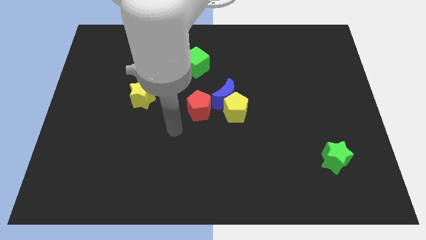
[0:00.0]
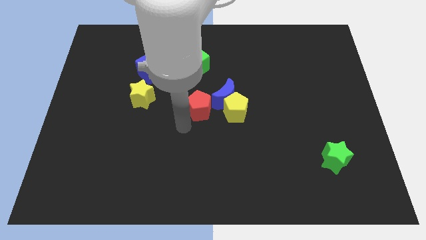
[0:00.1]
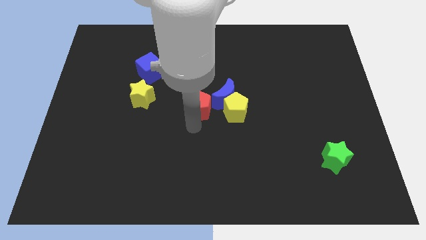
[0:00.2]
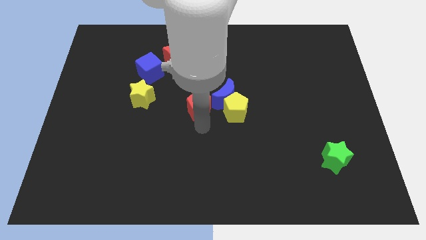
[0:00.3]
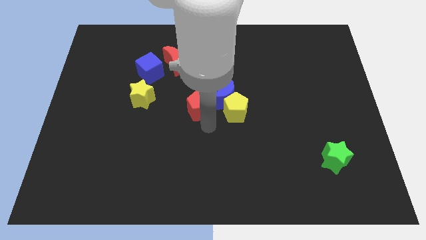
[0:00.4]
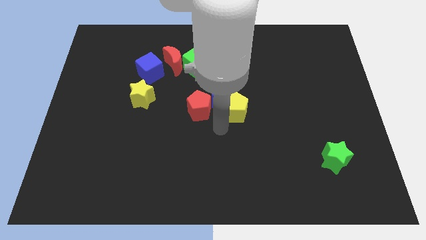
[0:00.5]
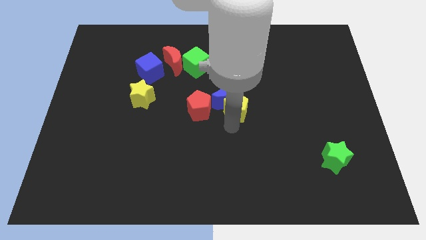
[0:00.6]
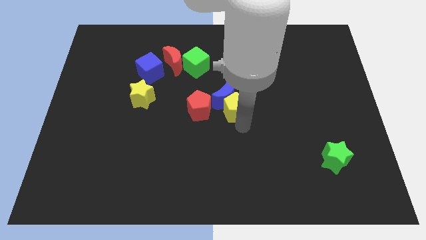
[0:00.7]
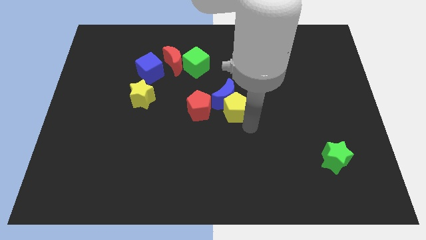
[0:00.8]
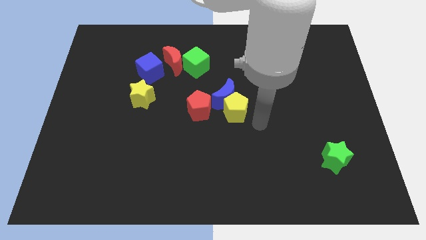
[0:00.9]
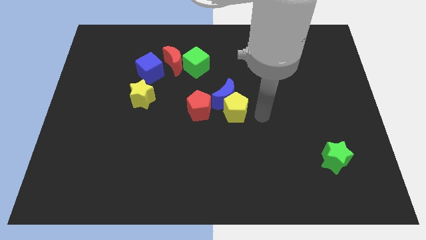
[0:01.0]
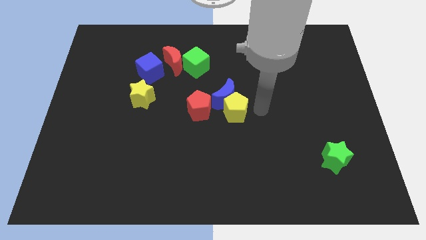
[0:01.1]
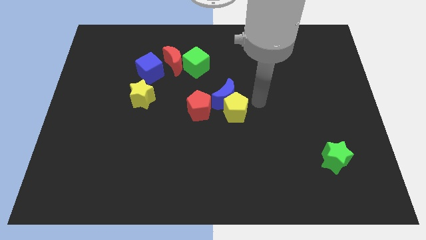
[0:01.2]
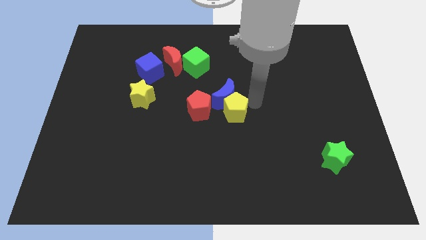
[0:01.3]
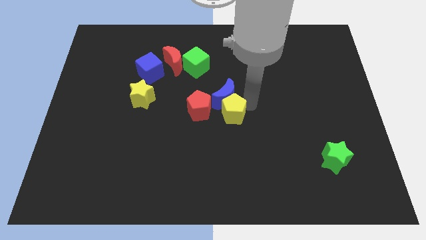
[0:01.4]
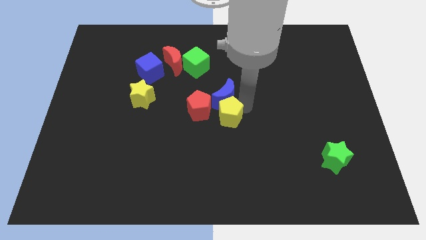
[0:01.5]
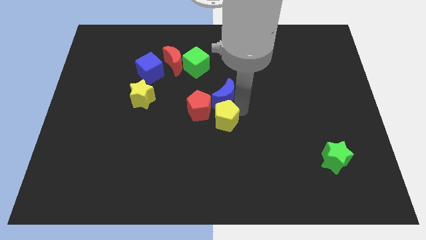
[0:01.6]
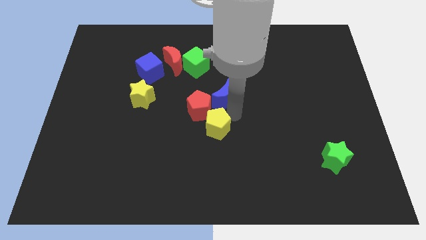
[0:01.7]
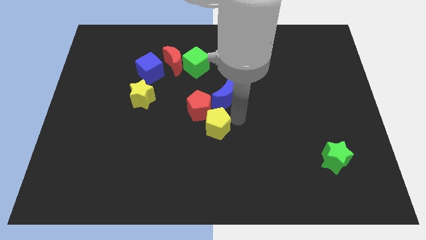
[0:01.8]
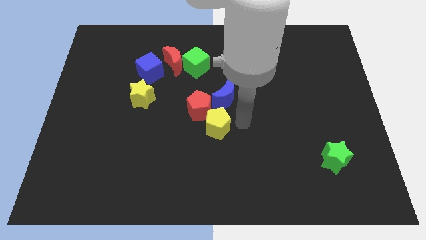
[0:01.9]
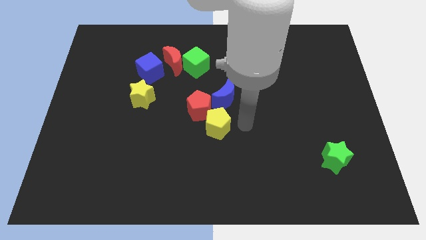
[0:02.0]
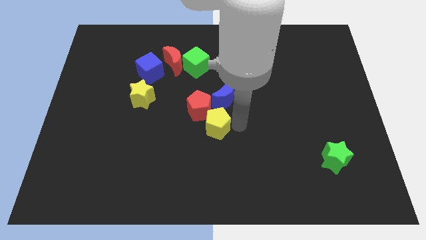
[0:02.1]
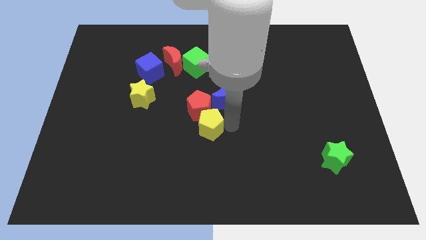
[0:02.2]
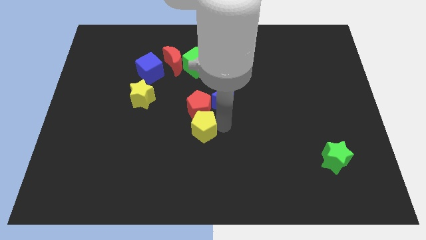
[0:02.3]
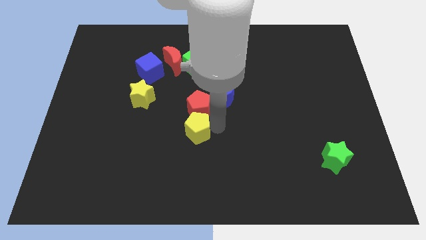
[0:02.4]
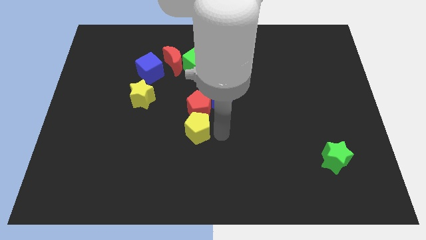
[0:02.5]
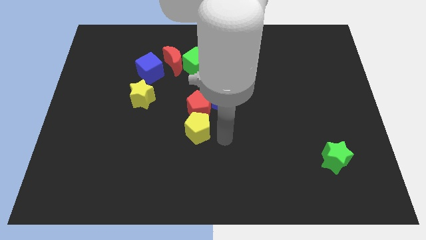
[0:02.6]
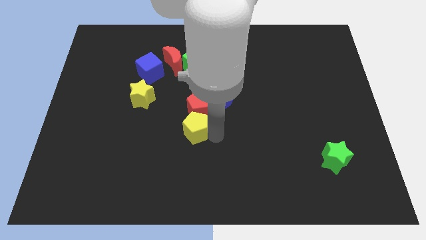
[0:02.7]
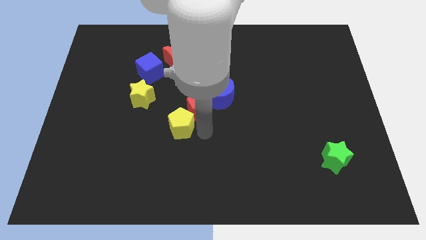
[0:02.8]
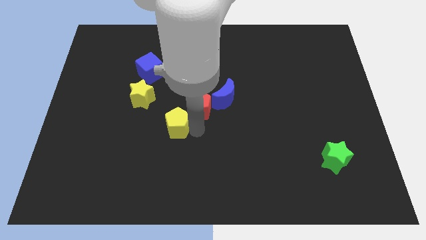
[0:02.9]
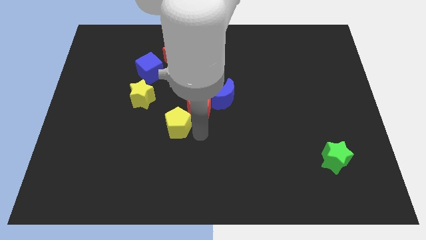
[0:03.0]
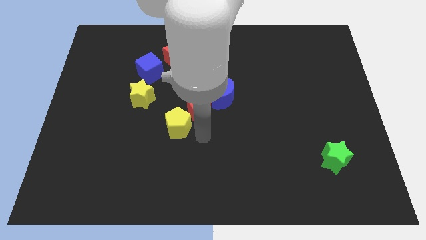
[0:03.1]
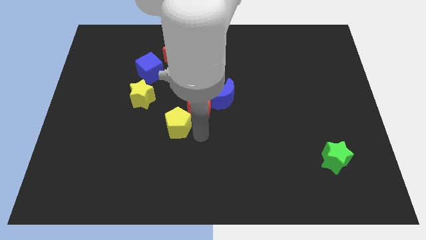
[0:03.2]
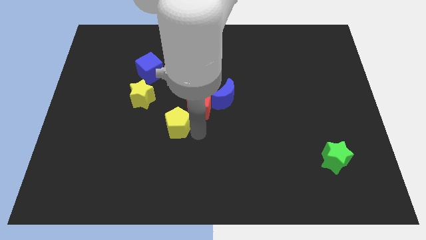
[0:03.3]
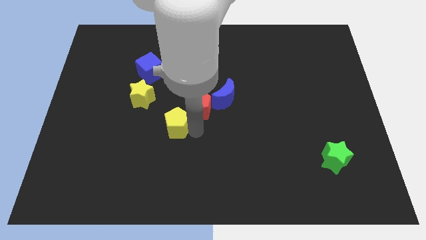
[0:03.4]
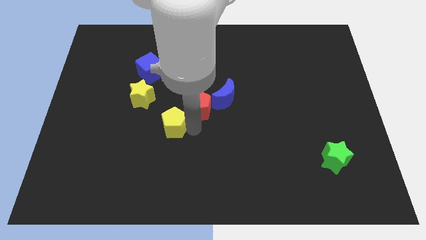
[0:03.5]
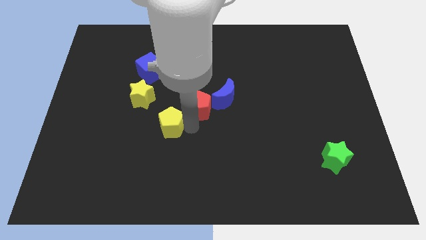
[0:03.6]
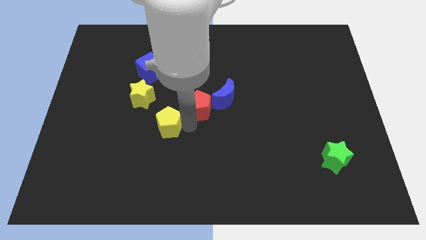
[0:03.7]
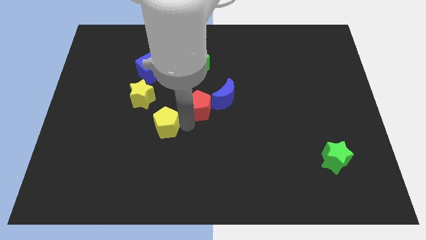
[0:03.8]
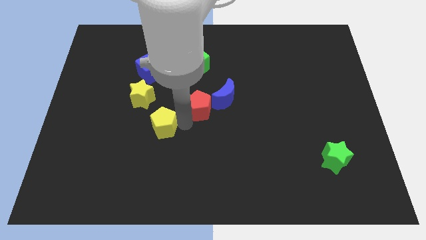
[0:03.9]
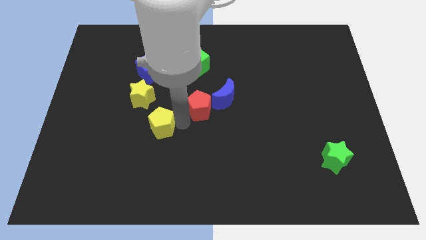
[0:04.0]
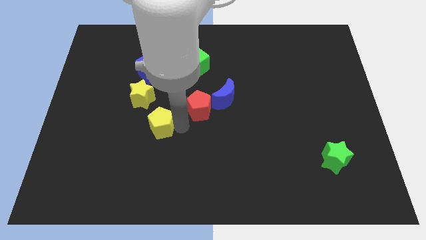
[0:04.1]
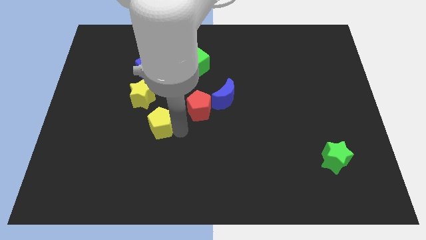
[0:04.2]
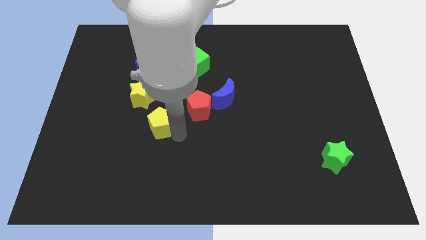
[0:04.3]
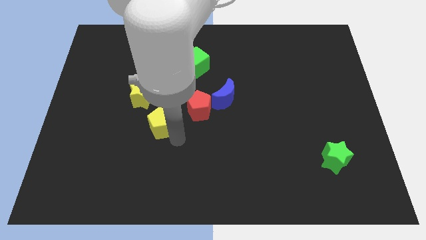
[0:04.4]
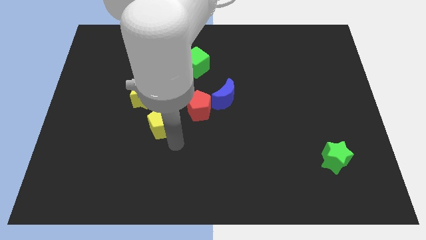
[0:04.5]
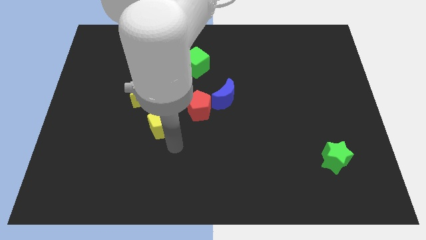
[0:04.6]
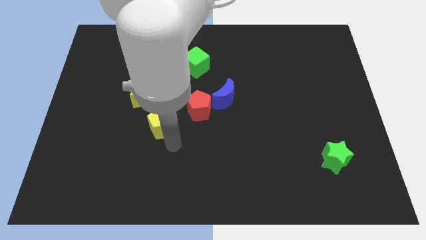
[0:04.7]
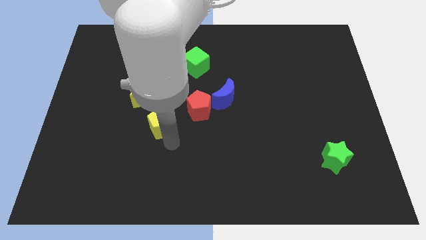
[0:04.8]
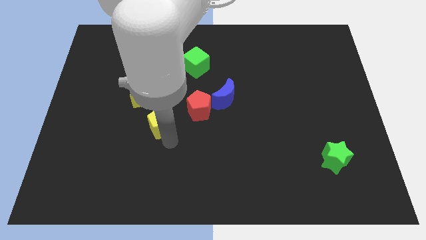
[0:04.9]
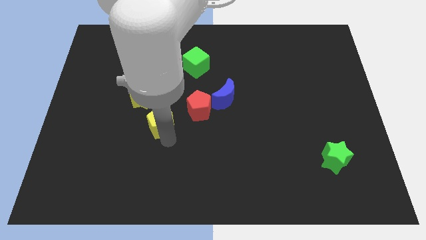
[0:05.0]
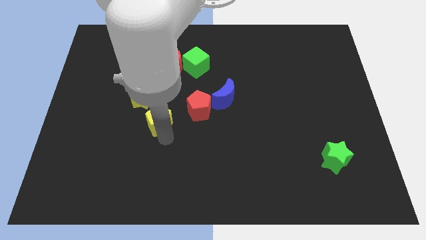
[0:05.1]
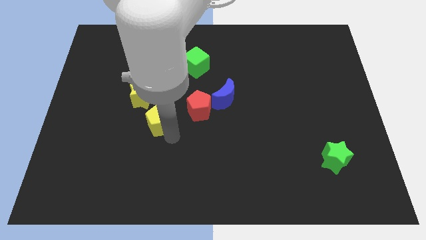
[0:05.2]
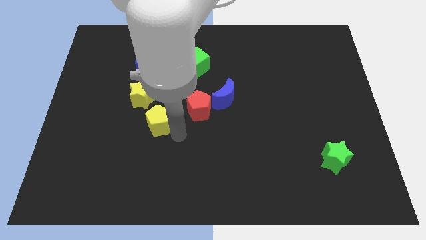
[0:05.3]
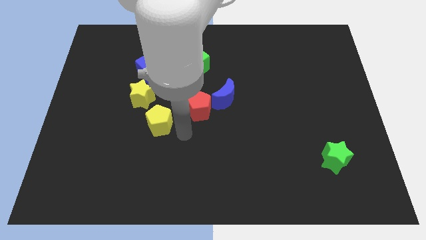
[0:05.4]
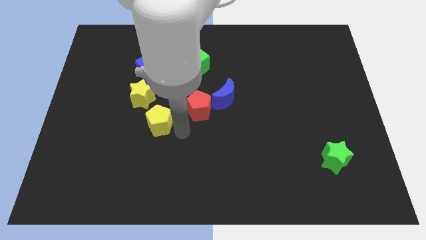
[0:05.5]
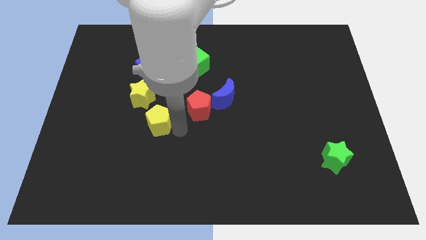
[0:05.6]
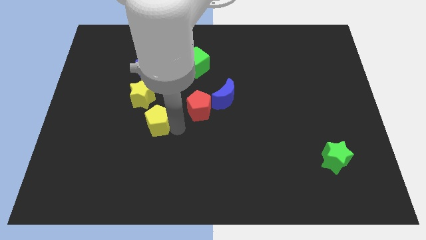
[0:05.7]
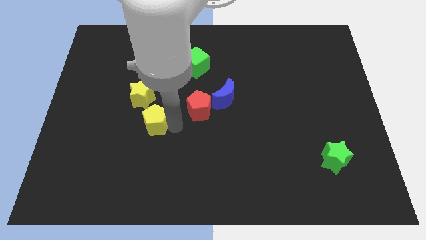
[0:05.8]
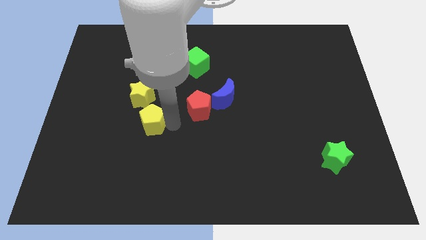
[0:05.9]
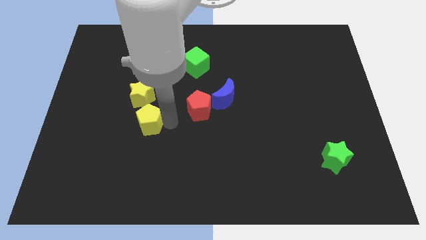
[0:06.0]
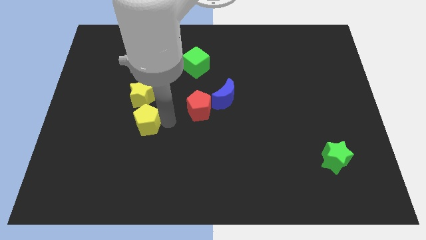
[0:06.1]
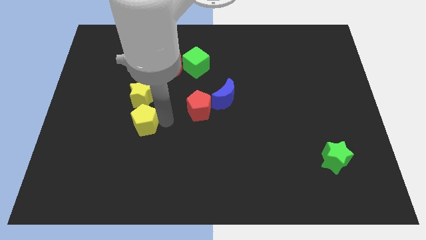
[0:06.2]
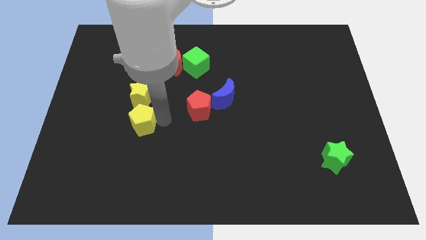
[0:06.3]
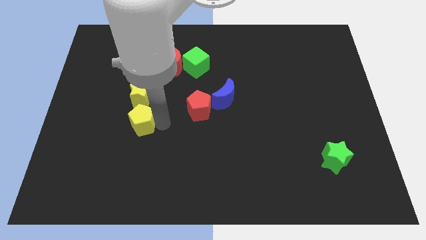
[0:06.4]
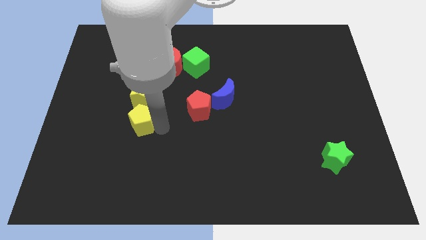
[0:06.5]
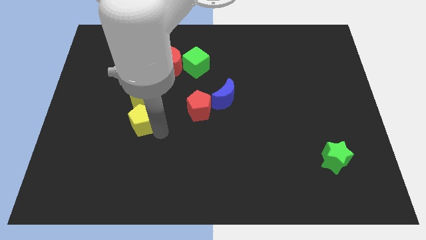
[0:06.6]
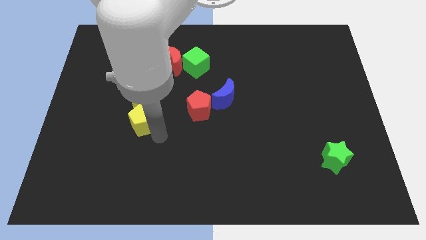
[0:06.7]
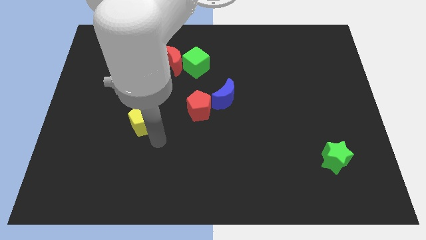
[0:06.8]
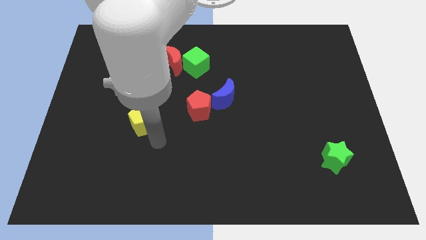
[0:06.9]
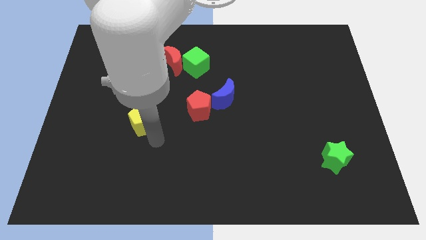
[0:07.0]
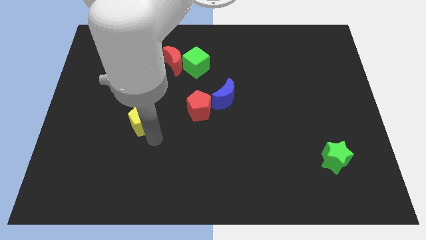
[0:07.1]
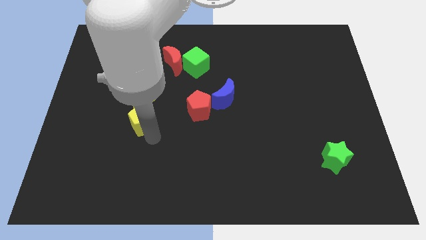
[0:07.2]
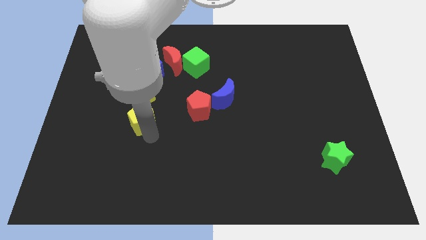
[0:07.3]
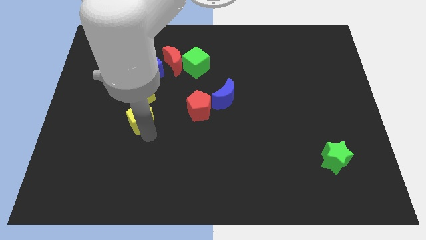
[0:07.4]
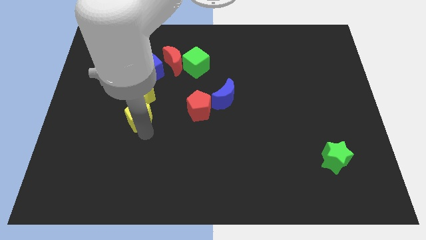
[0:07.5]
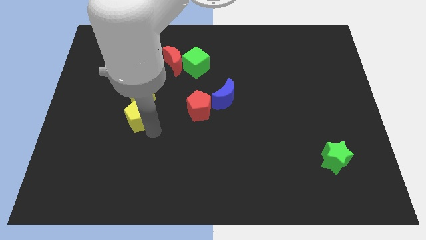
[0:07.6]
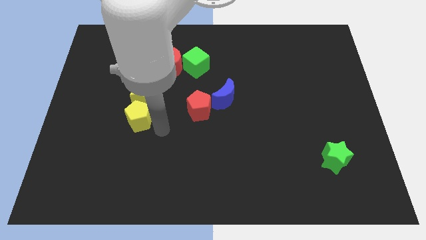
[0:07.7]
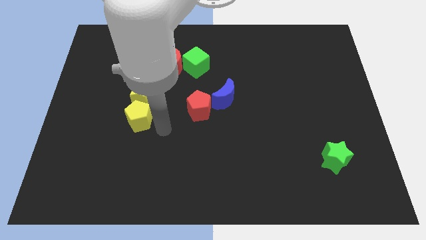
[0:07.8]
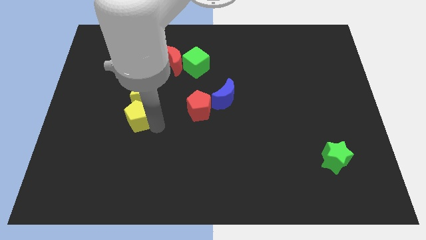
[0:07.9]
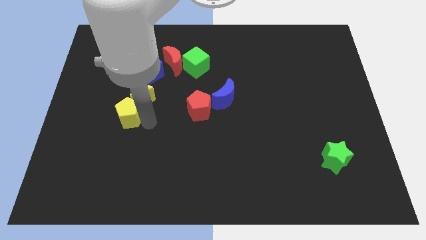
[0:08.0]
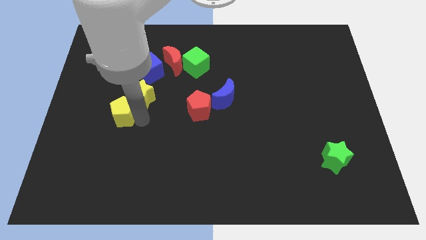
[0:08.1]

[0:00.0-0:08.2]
put the yellow pentagon just left of the yellow star

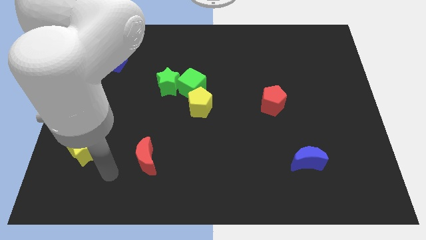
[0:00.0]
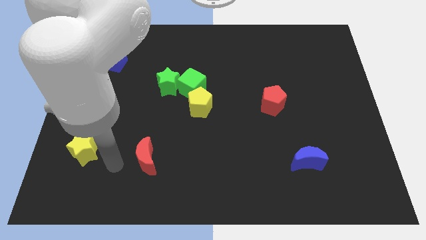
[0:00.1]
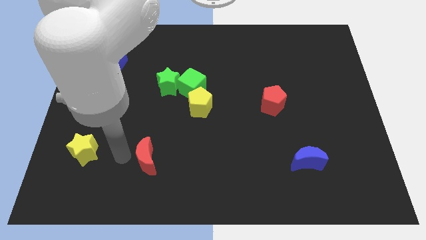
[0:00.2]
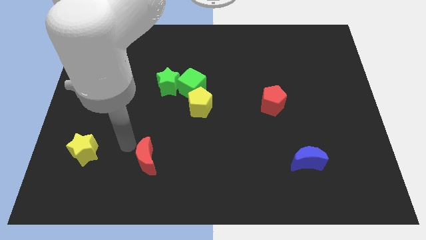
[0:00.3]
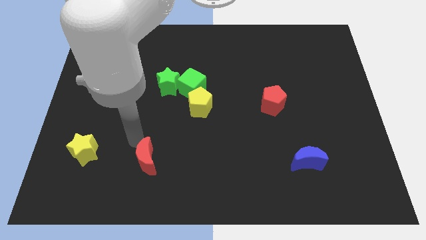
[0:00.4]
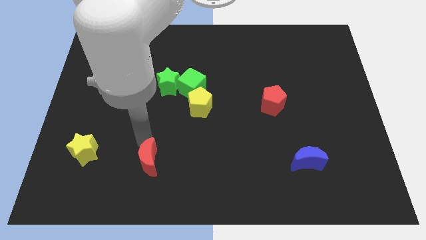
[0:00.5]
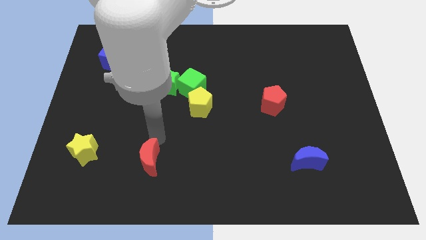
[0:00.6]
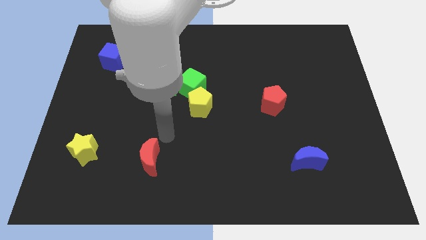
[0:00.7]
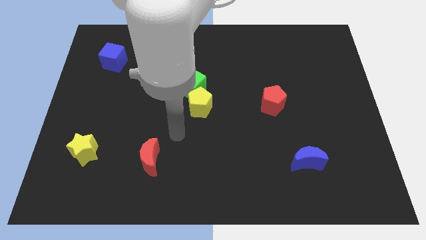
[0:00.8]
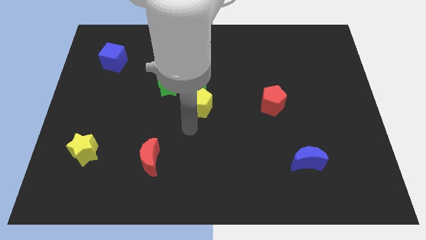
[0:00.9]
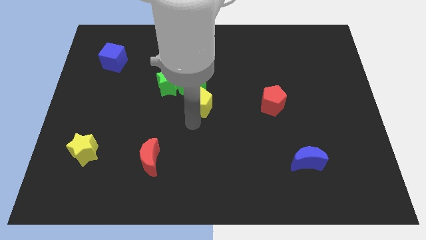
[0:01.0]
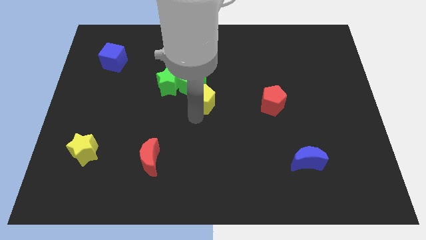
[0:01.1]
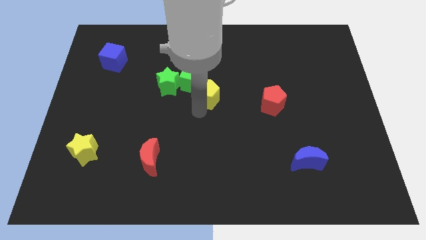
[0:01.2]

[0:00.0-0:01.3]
put the yellow pentagon to the right of the green star
